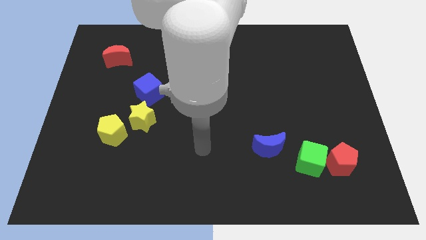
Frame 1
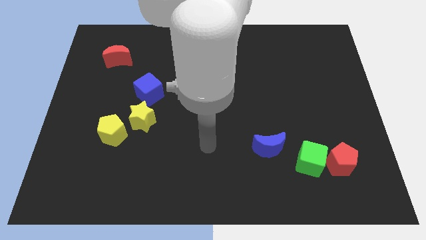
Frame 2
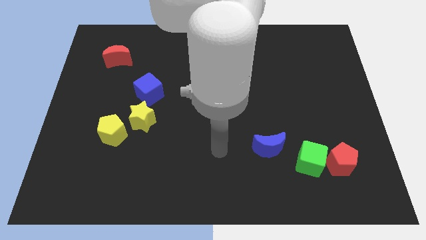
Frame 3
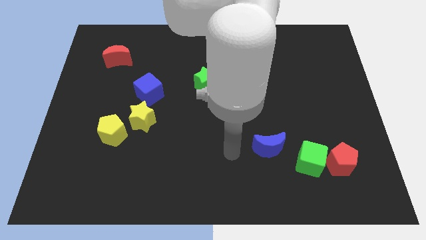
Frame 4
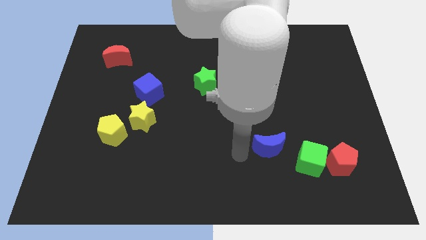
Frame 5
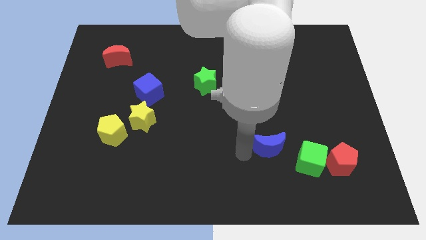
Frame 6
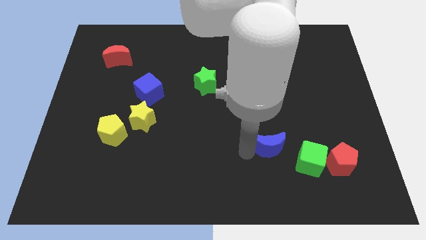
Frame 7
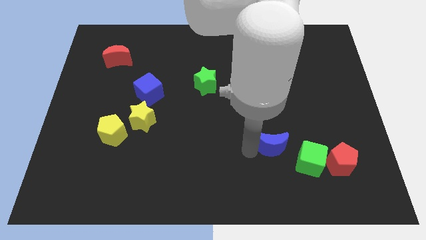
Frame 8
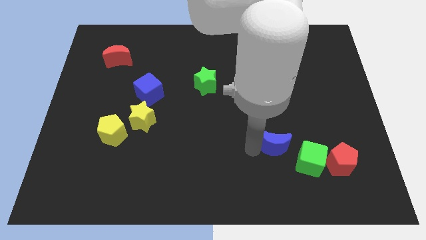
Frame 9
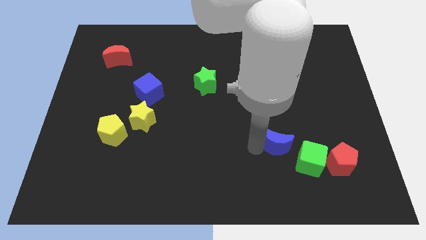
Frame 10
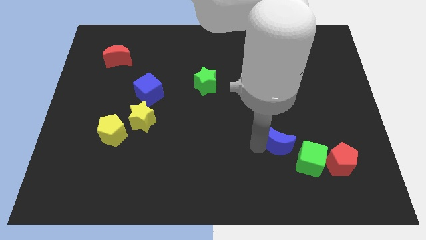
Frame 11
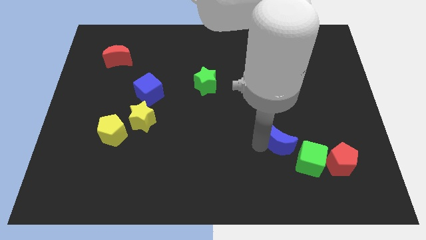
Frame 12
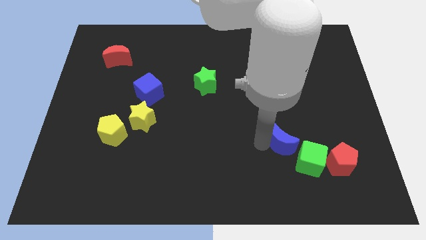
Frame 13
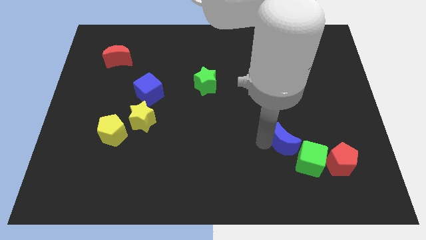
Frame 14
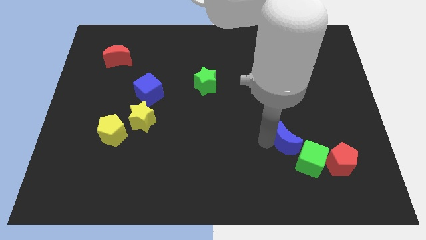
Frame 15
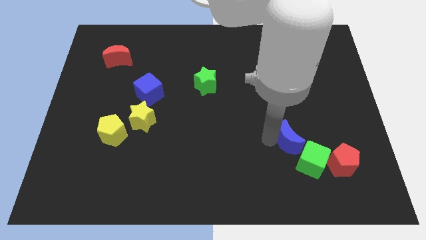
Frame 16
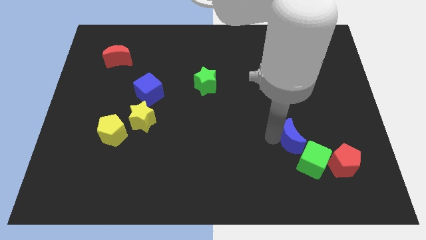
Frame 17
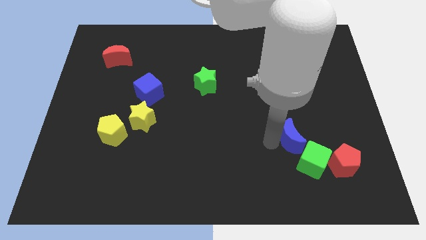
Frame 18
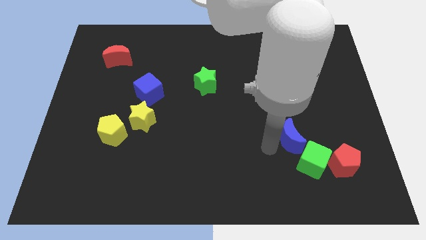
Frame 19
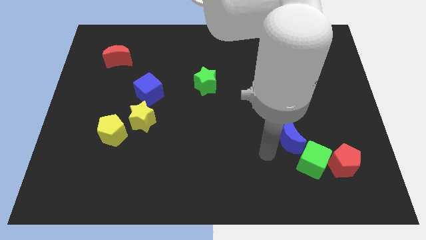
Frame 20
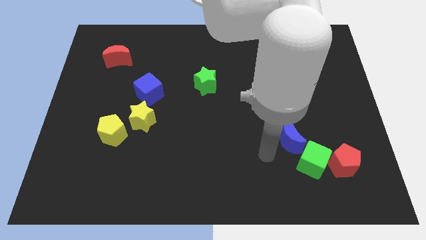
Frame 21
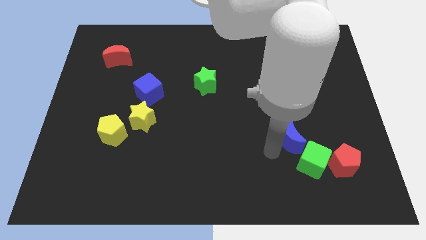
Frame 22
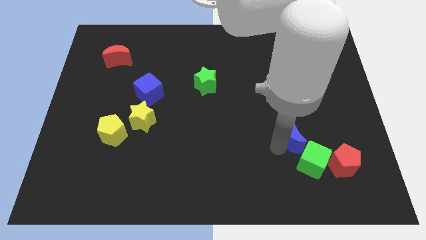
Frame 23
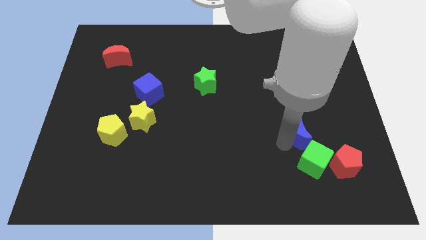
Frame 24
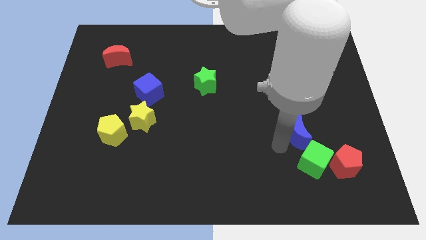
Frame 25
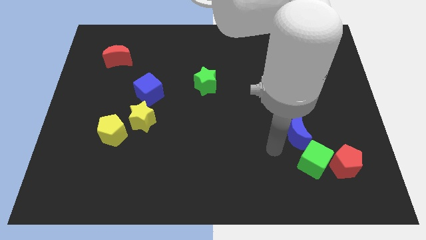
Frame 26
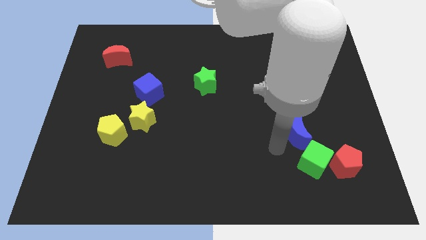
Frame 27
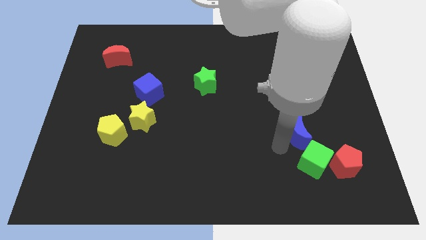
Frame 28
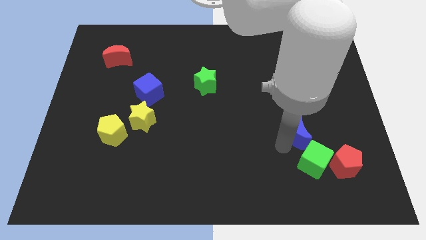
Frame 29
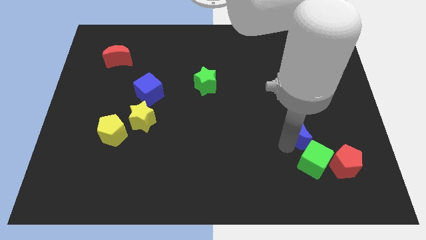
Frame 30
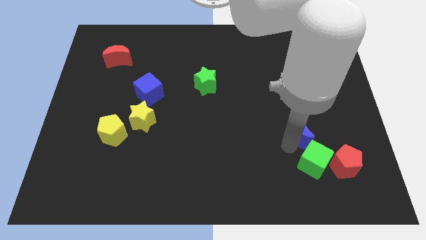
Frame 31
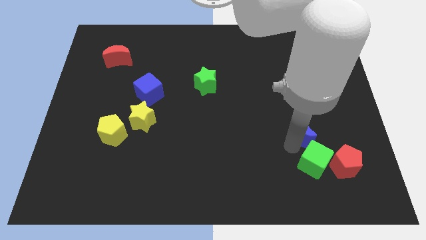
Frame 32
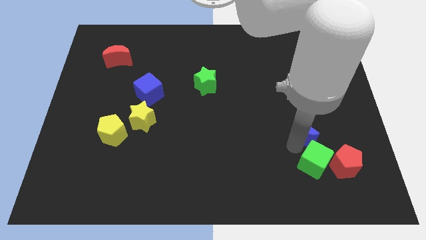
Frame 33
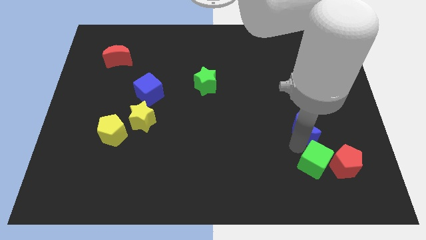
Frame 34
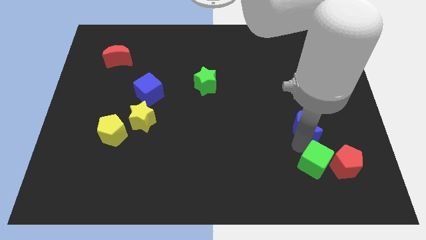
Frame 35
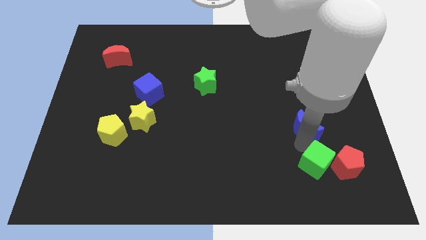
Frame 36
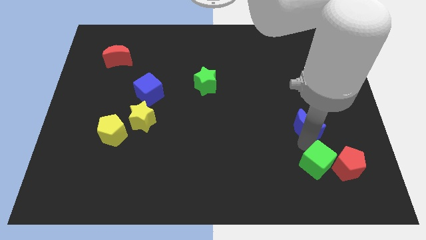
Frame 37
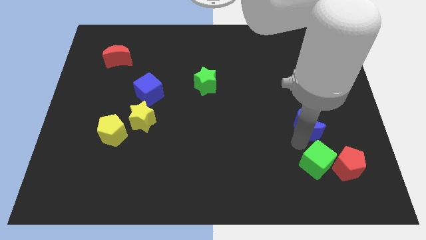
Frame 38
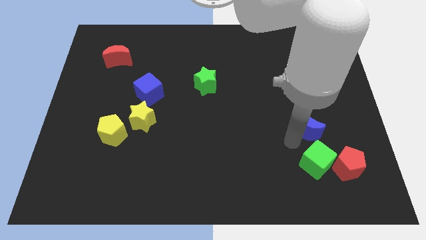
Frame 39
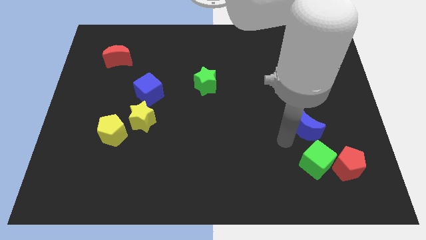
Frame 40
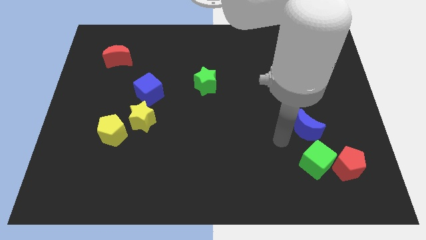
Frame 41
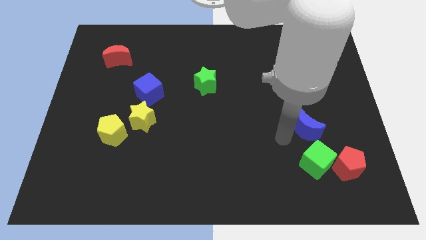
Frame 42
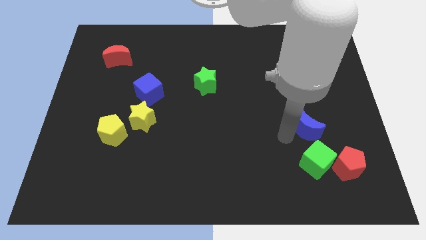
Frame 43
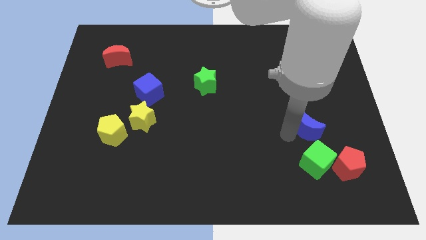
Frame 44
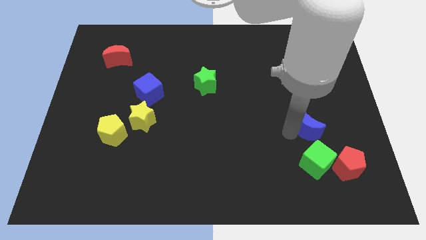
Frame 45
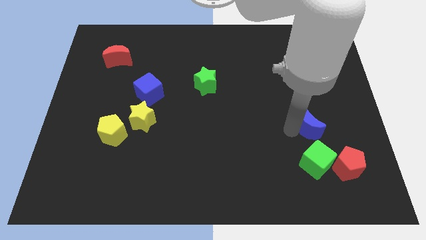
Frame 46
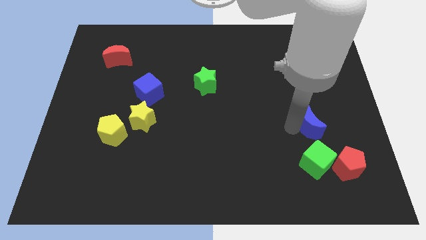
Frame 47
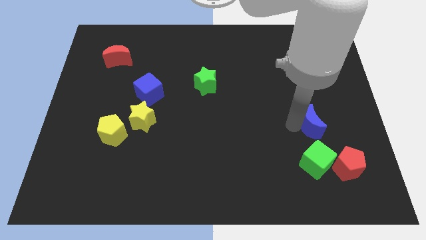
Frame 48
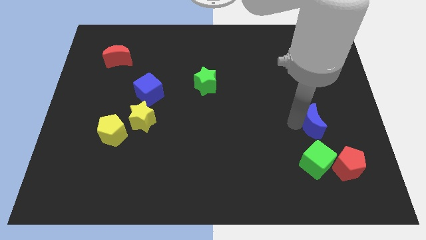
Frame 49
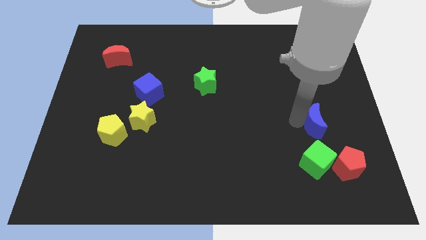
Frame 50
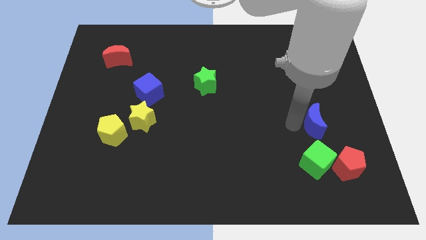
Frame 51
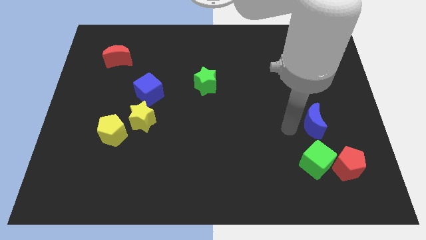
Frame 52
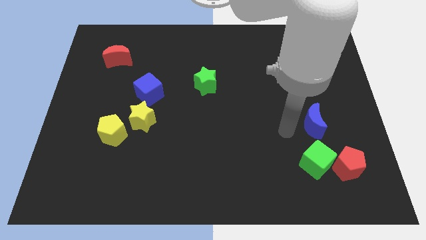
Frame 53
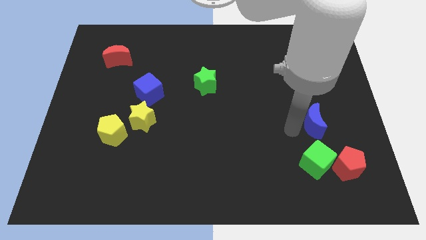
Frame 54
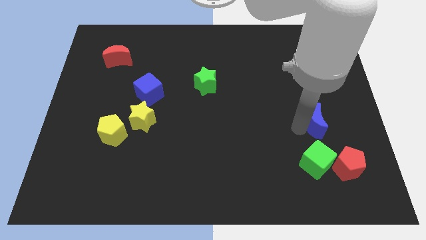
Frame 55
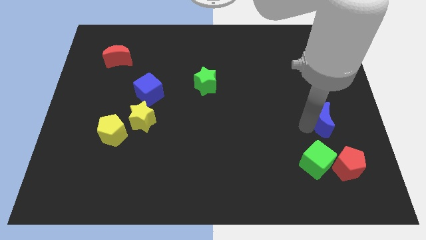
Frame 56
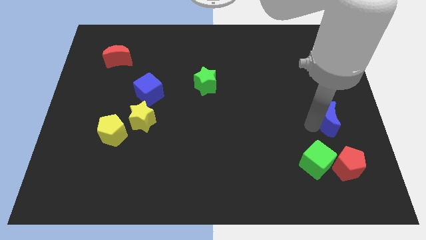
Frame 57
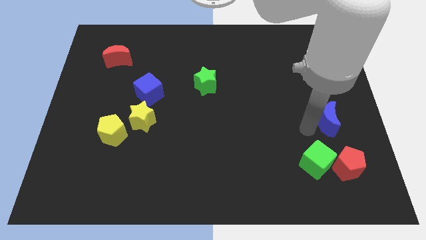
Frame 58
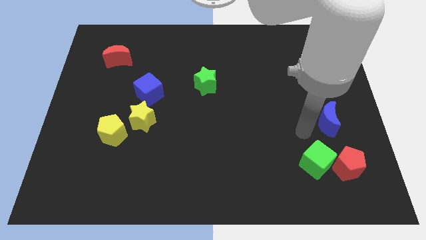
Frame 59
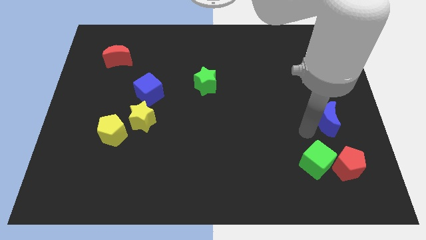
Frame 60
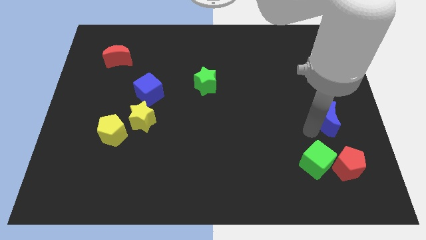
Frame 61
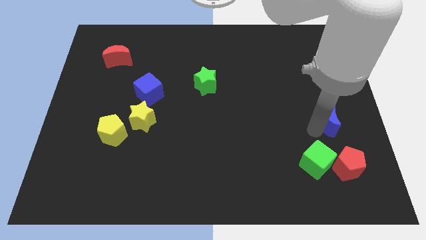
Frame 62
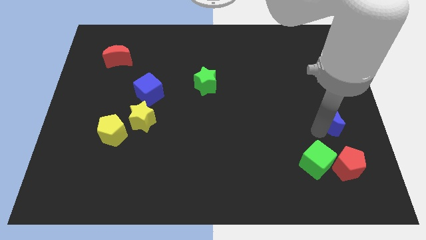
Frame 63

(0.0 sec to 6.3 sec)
move the blue moon to the right side of the board
